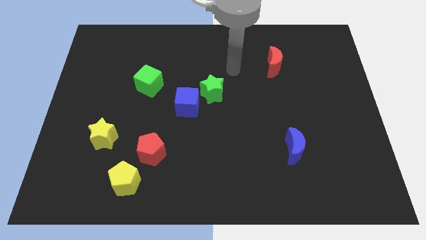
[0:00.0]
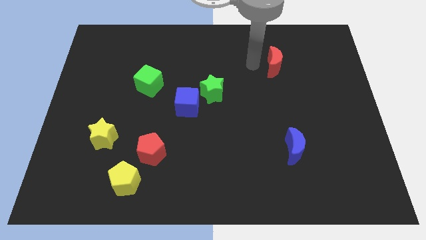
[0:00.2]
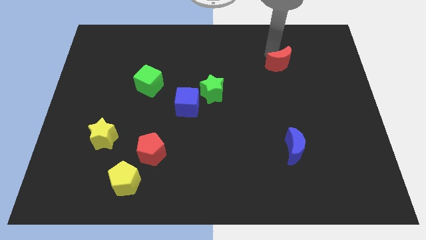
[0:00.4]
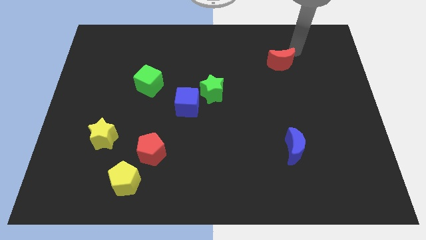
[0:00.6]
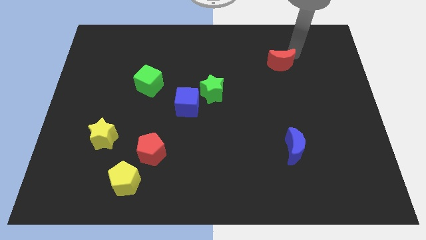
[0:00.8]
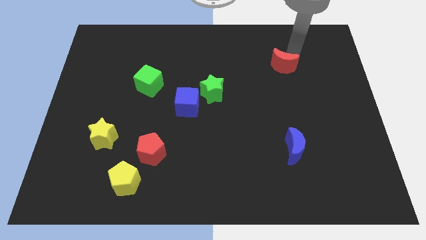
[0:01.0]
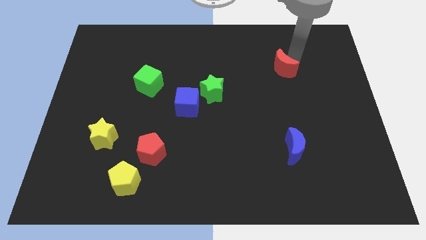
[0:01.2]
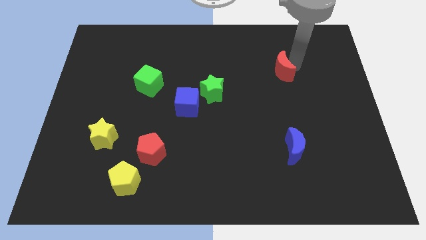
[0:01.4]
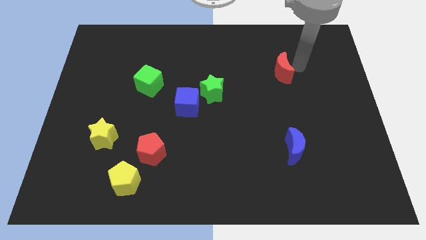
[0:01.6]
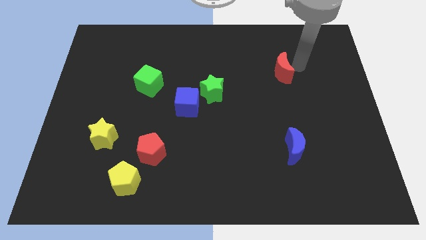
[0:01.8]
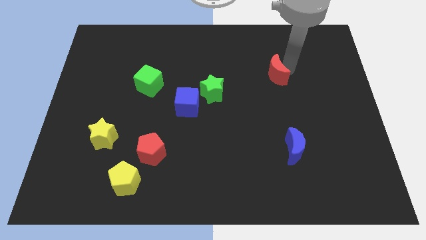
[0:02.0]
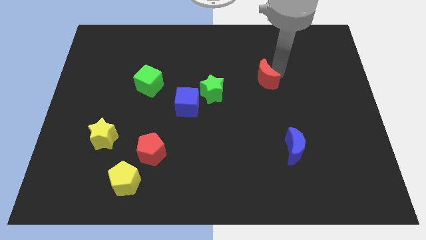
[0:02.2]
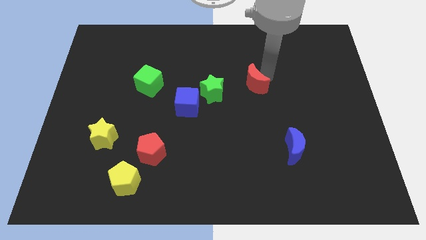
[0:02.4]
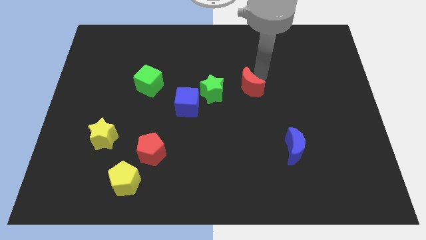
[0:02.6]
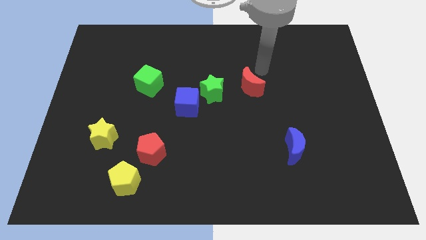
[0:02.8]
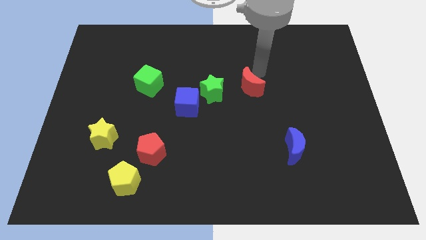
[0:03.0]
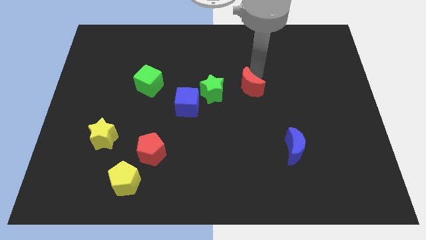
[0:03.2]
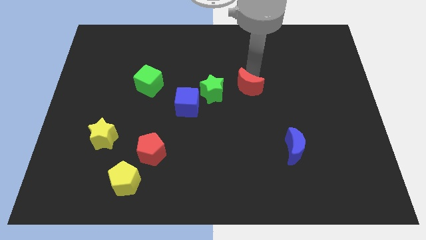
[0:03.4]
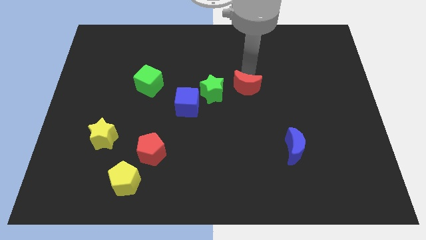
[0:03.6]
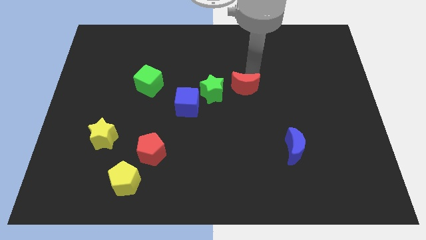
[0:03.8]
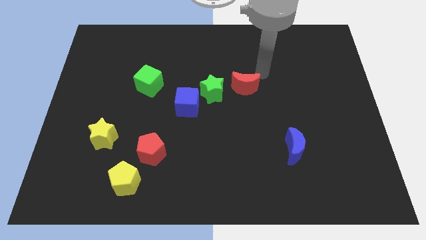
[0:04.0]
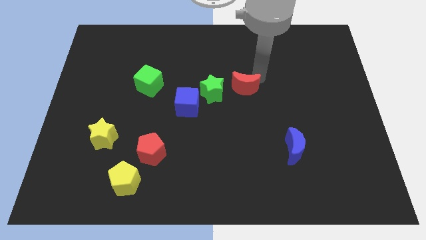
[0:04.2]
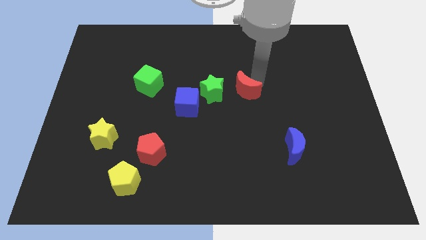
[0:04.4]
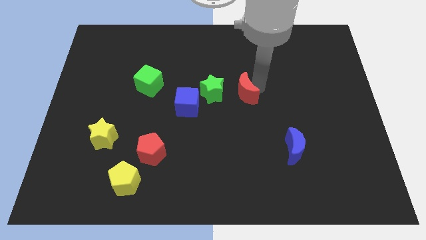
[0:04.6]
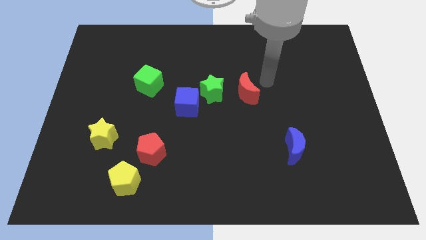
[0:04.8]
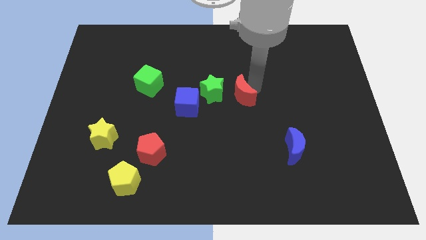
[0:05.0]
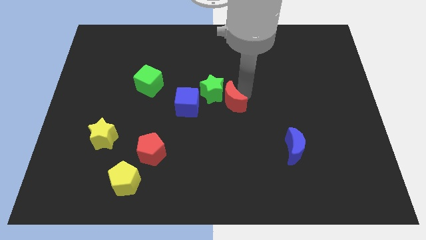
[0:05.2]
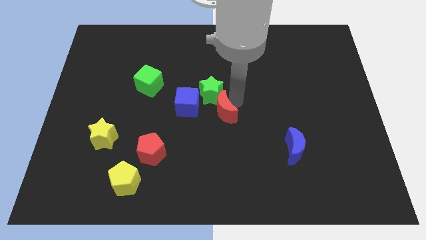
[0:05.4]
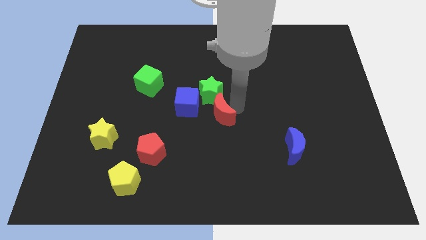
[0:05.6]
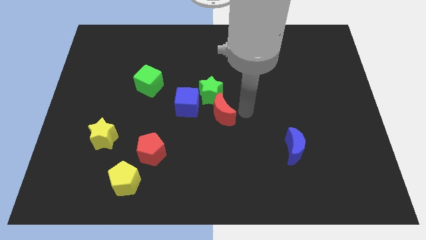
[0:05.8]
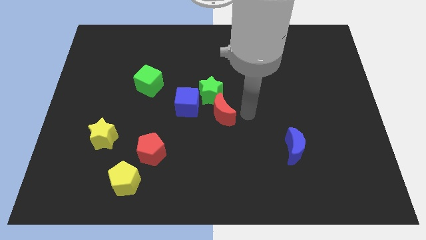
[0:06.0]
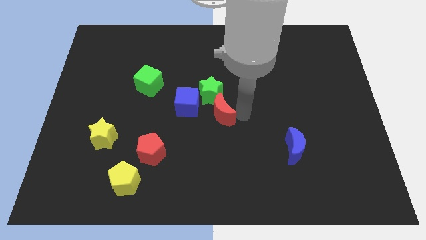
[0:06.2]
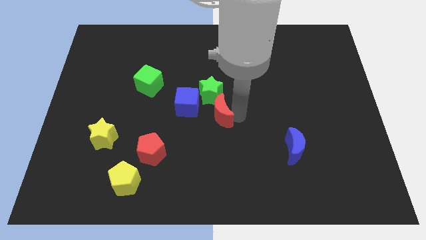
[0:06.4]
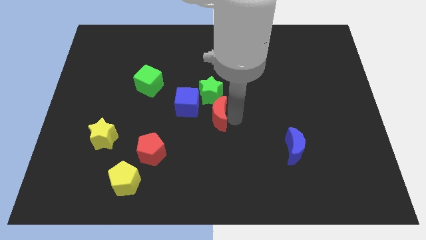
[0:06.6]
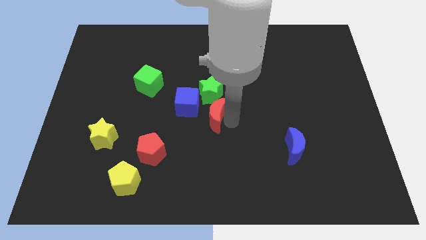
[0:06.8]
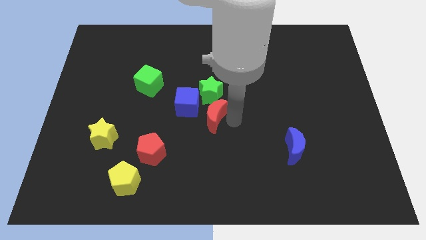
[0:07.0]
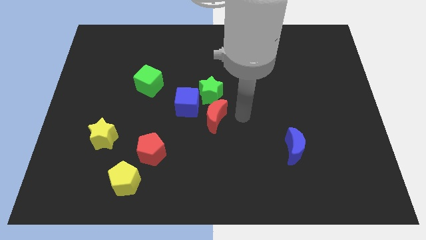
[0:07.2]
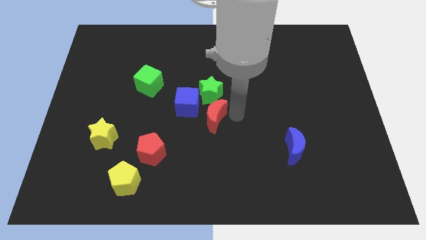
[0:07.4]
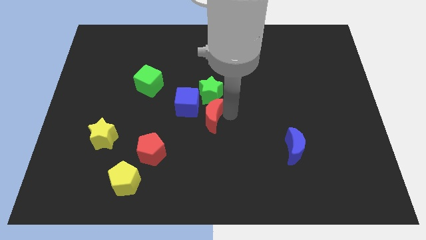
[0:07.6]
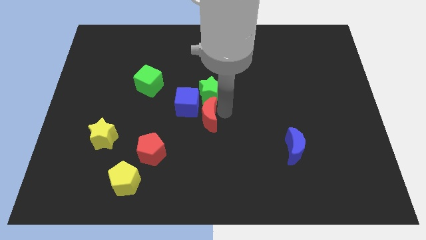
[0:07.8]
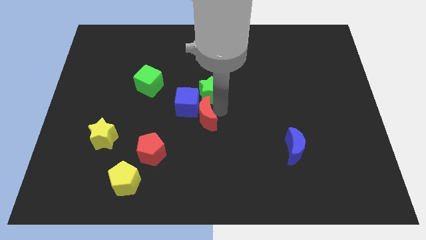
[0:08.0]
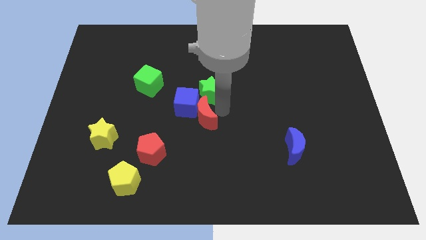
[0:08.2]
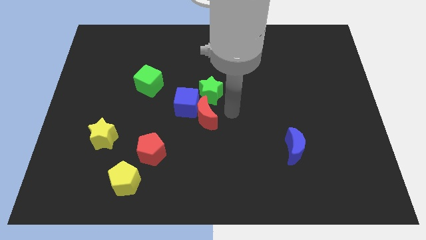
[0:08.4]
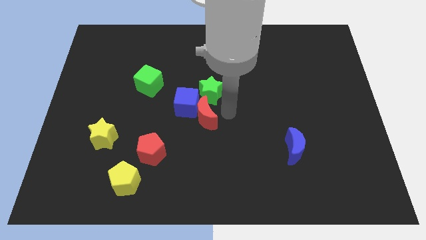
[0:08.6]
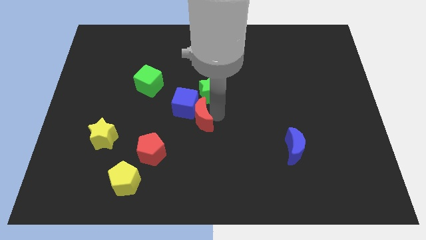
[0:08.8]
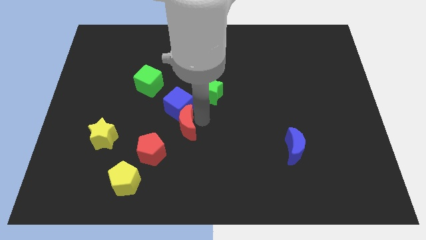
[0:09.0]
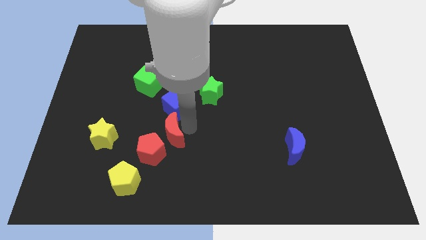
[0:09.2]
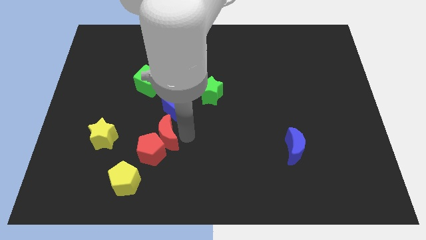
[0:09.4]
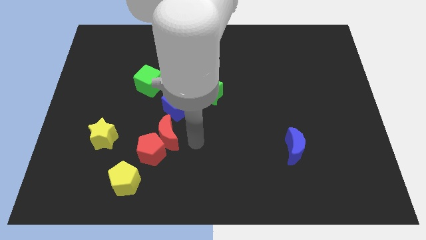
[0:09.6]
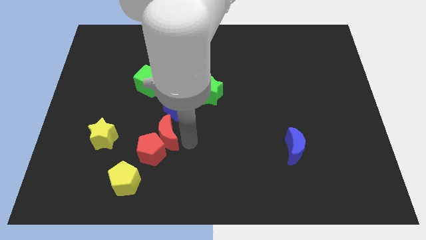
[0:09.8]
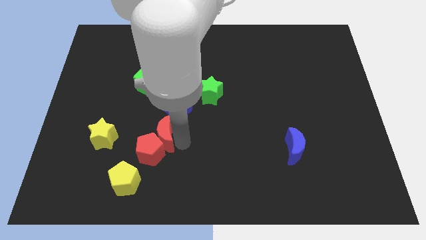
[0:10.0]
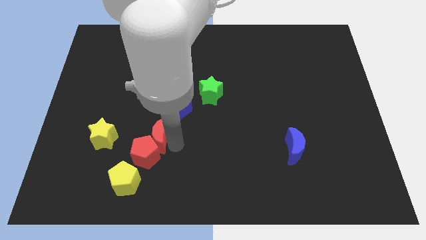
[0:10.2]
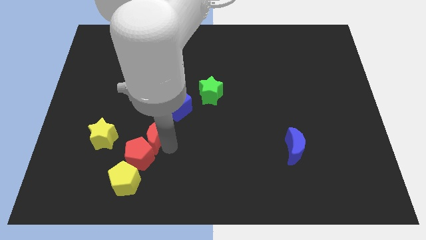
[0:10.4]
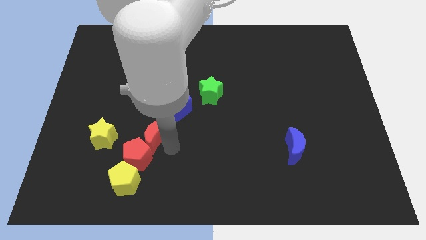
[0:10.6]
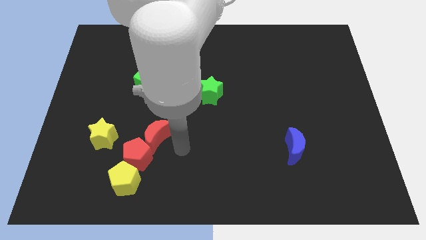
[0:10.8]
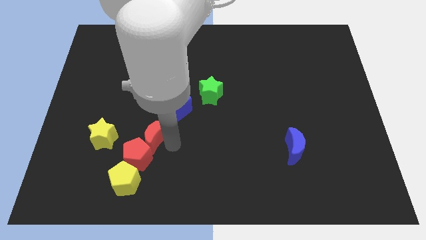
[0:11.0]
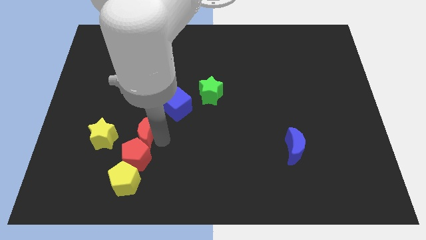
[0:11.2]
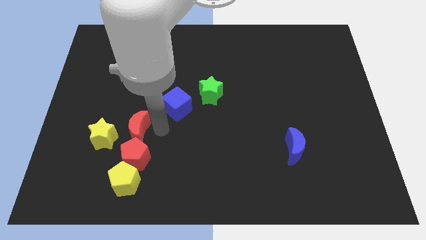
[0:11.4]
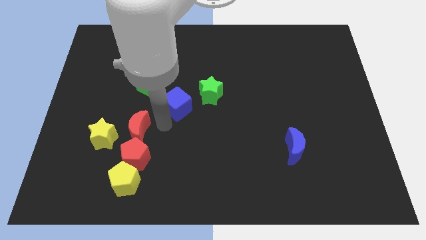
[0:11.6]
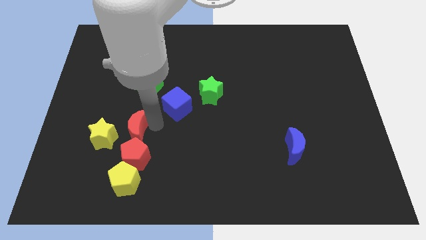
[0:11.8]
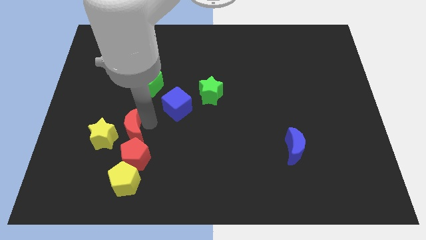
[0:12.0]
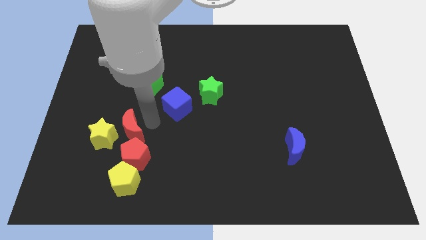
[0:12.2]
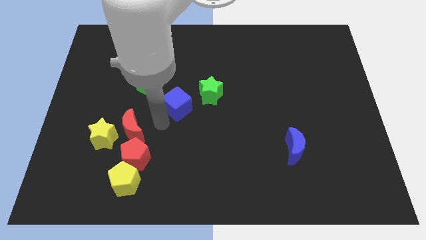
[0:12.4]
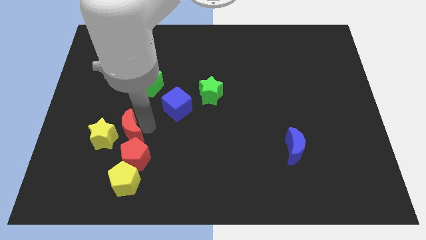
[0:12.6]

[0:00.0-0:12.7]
put the red moon next to the yellow star

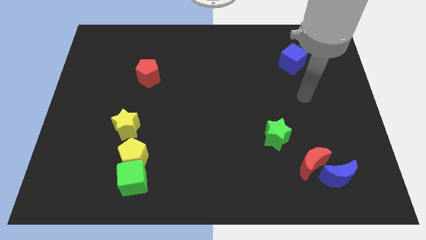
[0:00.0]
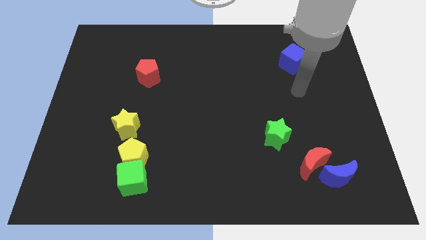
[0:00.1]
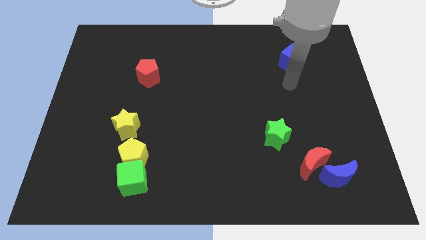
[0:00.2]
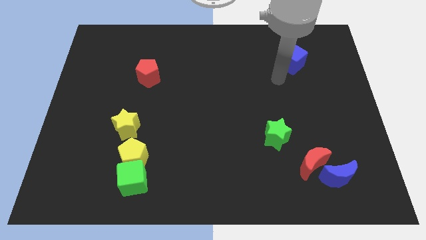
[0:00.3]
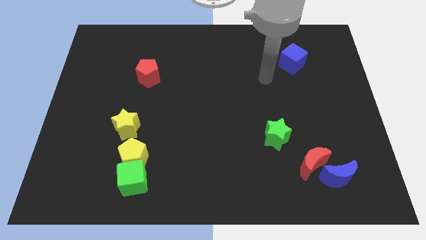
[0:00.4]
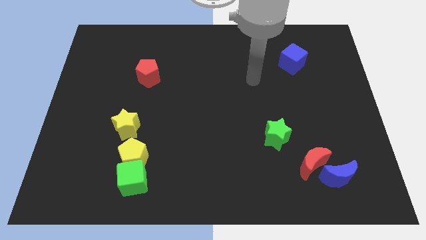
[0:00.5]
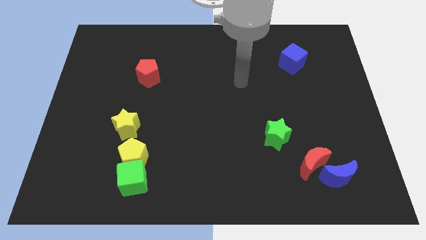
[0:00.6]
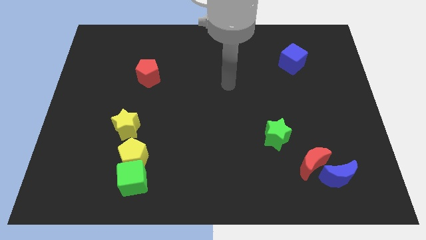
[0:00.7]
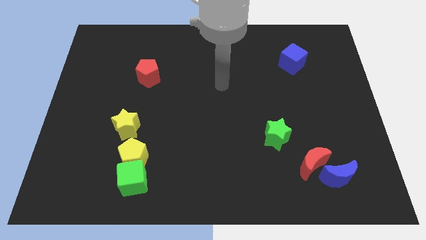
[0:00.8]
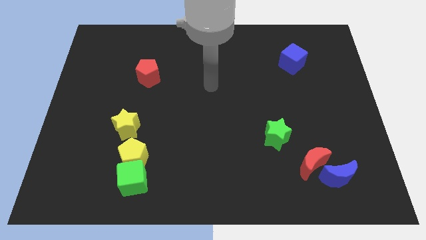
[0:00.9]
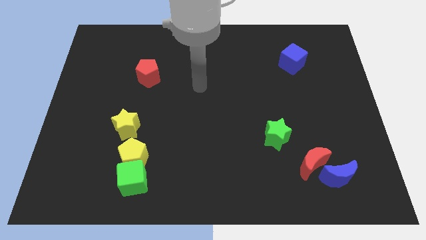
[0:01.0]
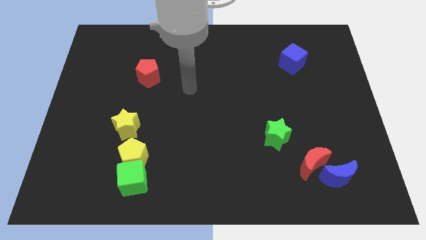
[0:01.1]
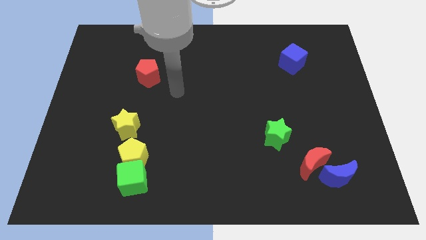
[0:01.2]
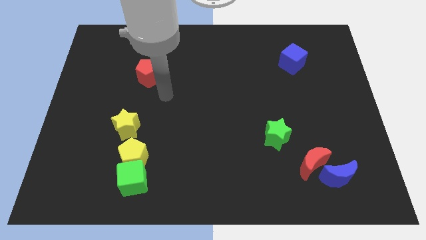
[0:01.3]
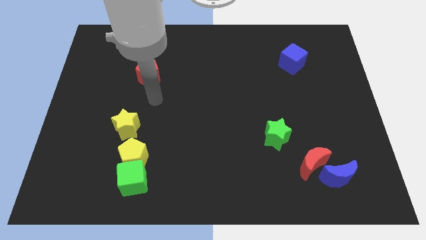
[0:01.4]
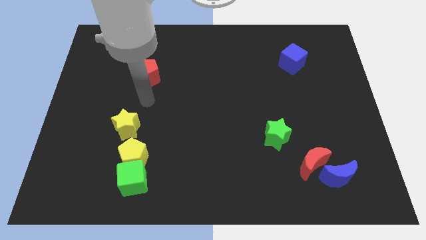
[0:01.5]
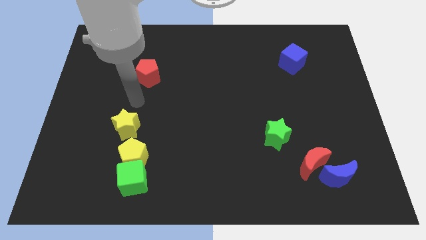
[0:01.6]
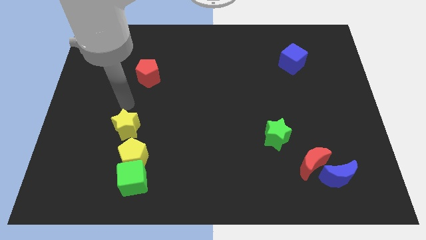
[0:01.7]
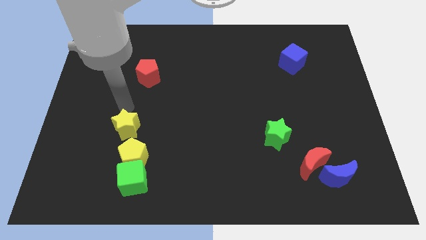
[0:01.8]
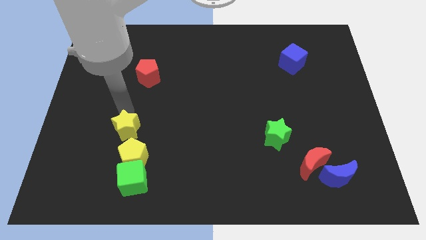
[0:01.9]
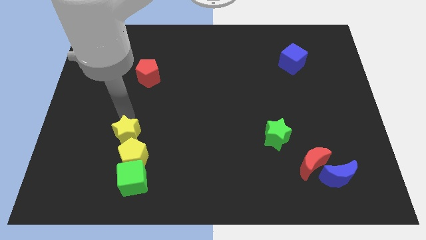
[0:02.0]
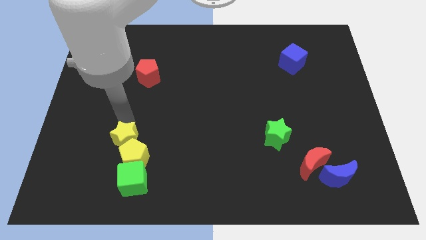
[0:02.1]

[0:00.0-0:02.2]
push the yellow star close to the yellow pentagon

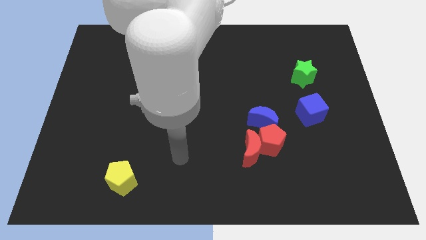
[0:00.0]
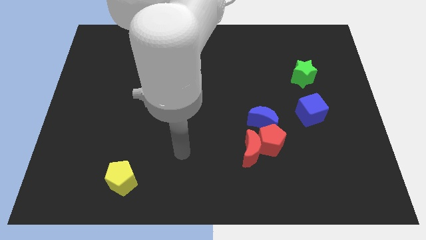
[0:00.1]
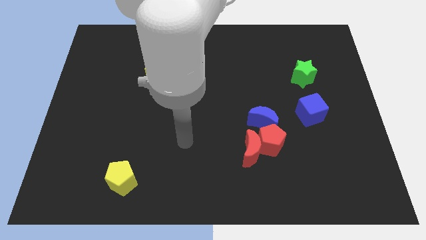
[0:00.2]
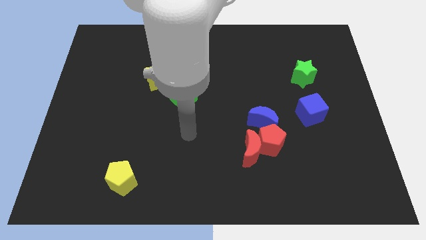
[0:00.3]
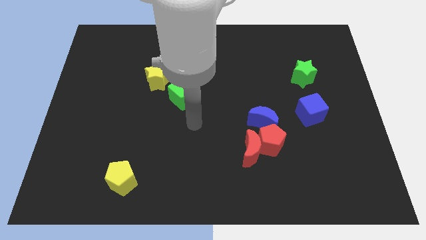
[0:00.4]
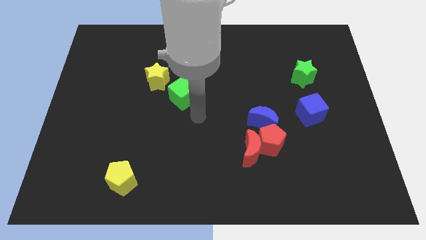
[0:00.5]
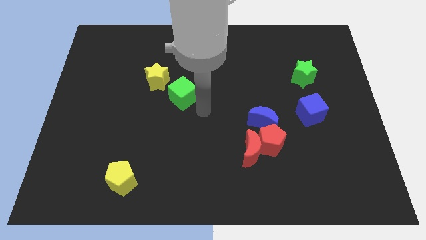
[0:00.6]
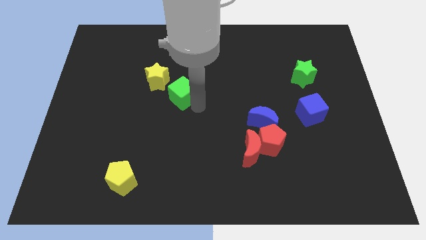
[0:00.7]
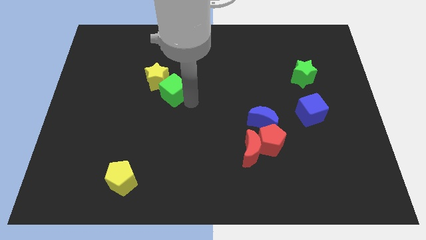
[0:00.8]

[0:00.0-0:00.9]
put the green cube close to the yellow star
